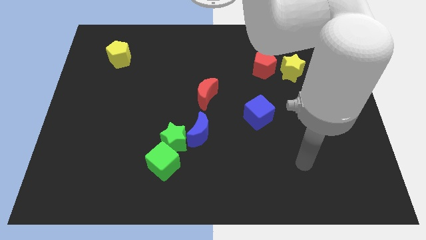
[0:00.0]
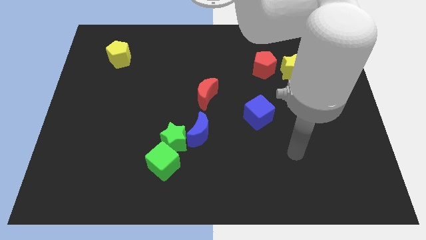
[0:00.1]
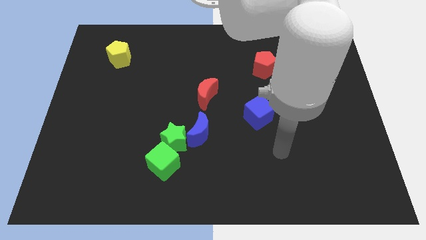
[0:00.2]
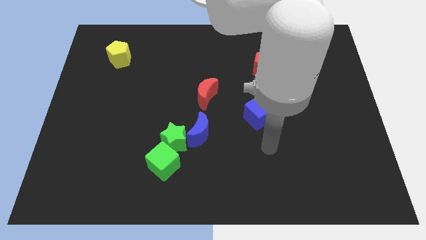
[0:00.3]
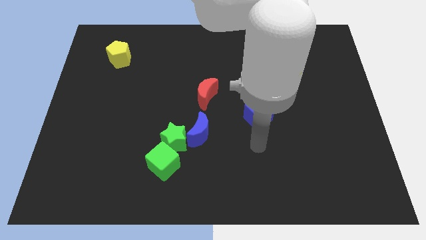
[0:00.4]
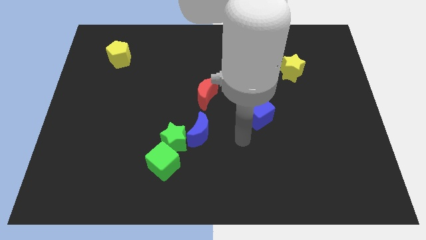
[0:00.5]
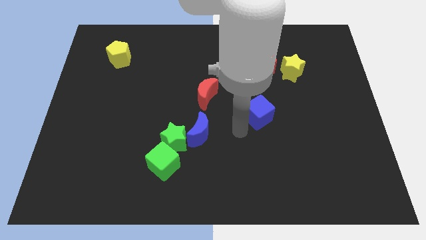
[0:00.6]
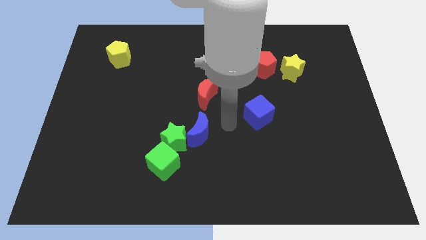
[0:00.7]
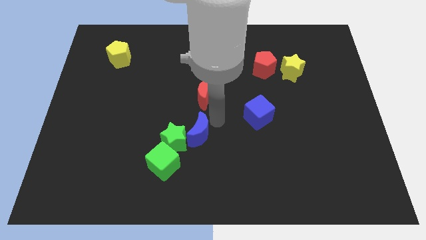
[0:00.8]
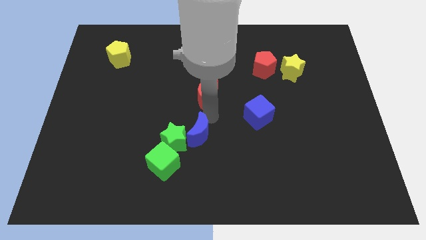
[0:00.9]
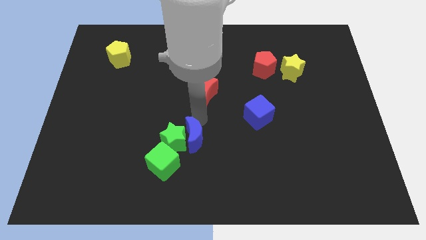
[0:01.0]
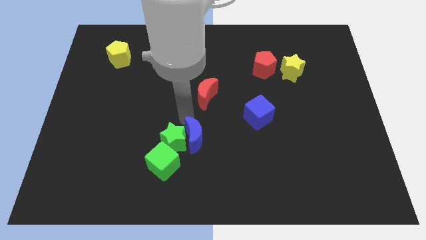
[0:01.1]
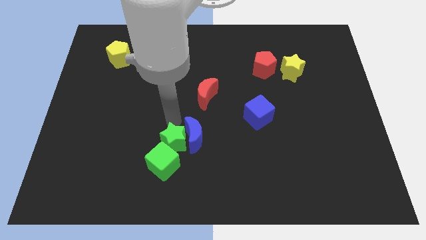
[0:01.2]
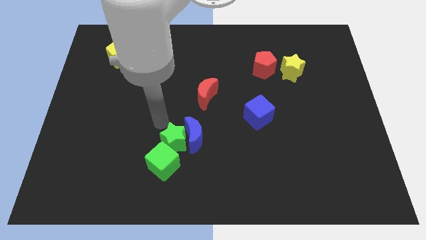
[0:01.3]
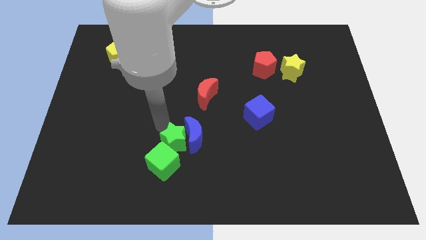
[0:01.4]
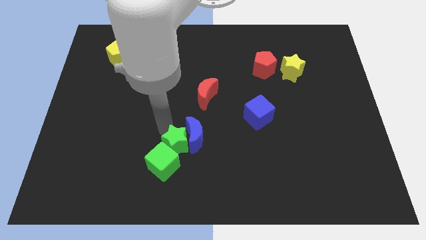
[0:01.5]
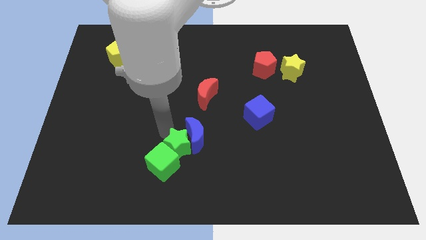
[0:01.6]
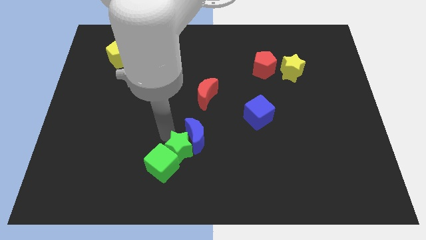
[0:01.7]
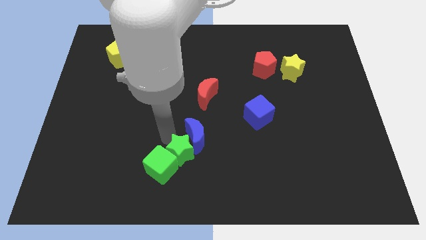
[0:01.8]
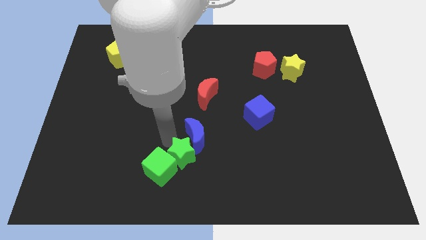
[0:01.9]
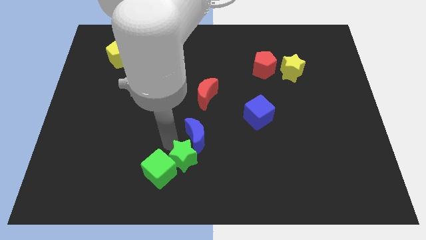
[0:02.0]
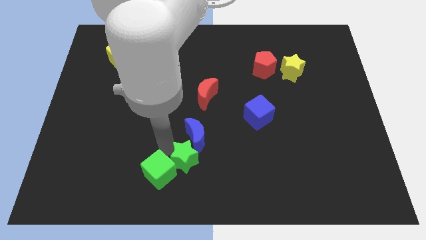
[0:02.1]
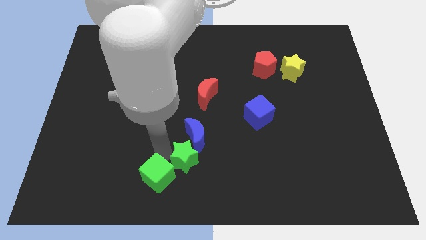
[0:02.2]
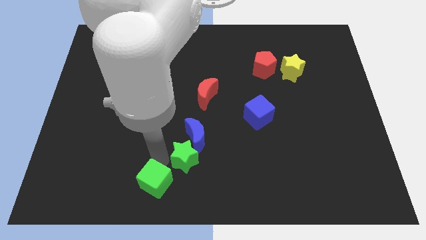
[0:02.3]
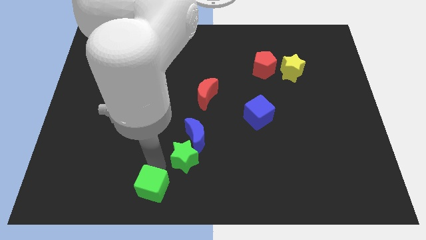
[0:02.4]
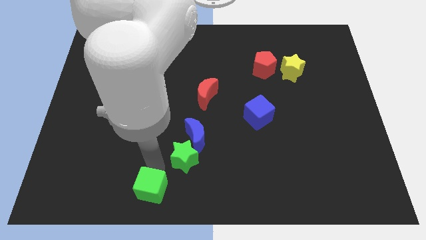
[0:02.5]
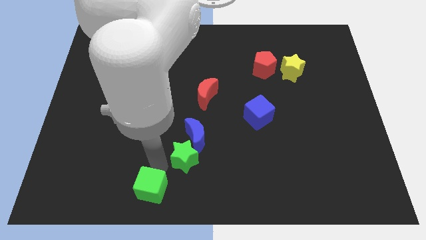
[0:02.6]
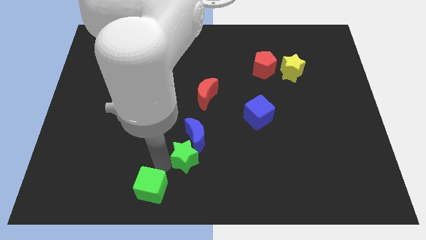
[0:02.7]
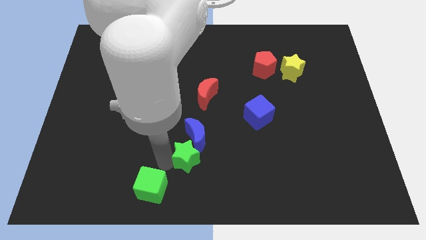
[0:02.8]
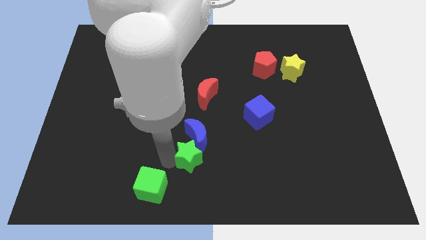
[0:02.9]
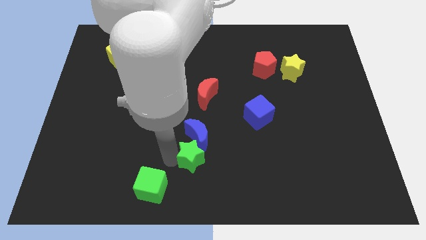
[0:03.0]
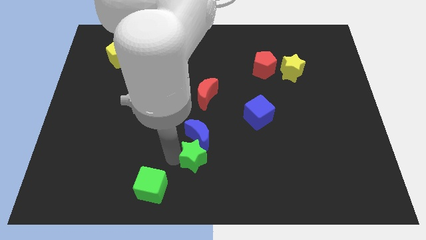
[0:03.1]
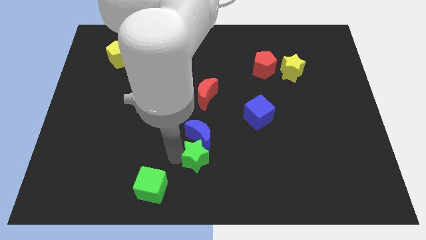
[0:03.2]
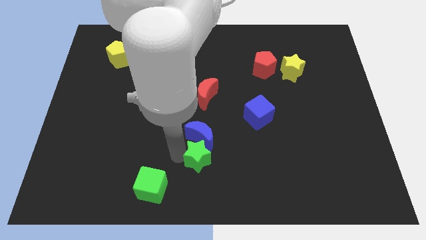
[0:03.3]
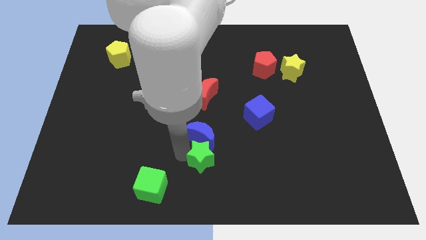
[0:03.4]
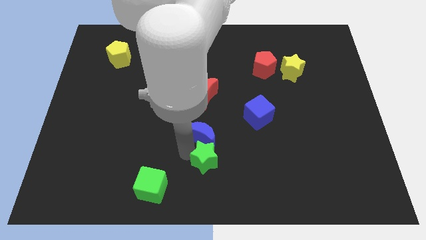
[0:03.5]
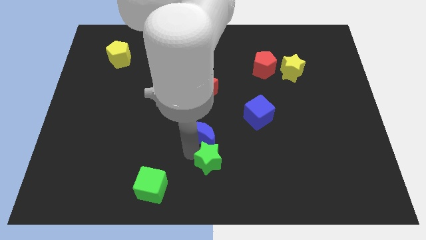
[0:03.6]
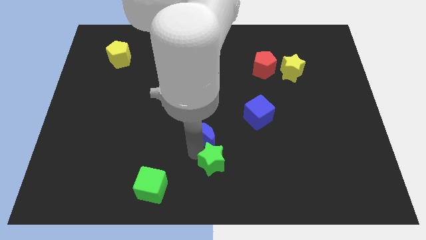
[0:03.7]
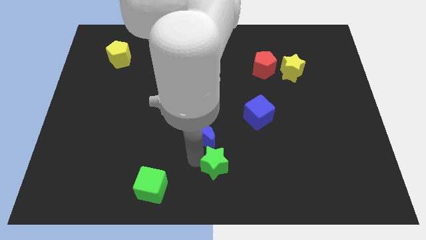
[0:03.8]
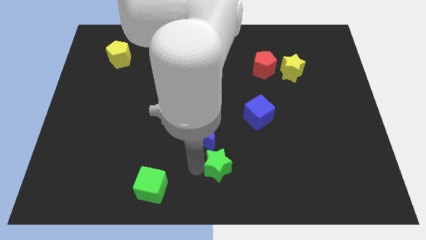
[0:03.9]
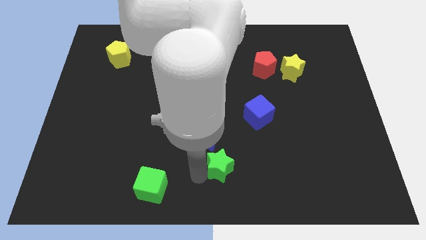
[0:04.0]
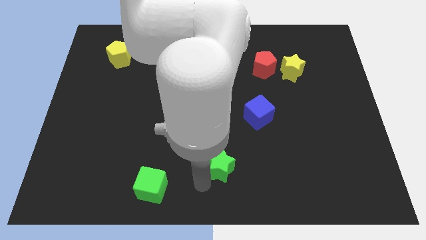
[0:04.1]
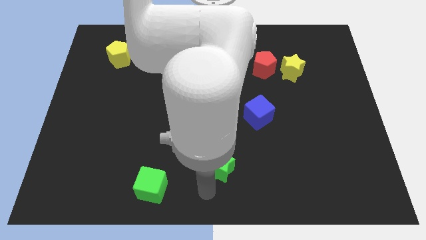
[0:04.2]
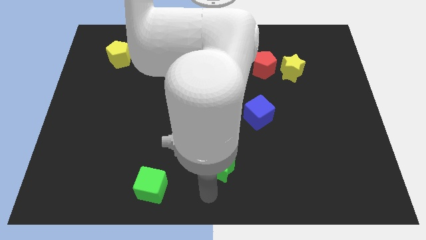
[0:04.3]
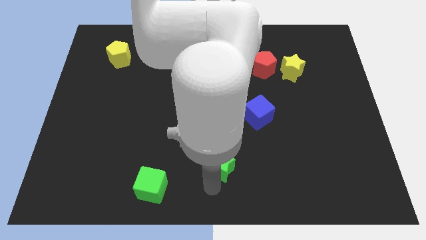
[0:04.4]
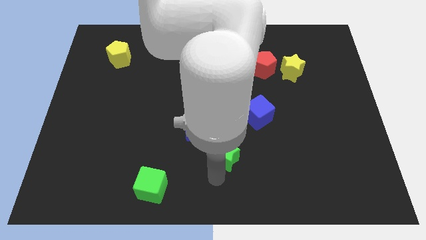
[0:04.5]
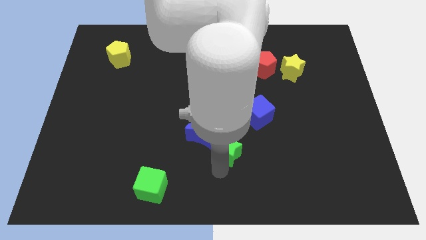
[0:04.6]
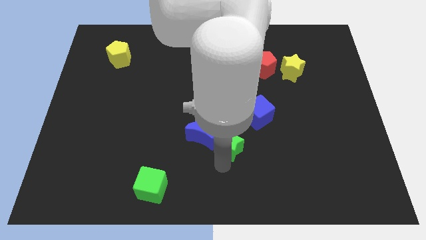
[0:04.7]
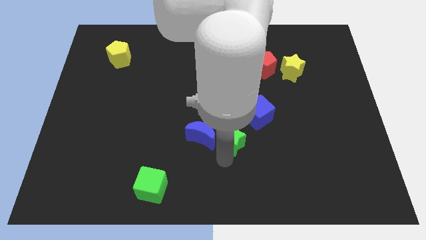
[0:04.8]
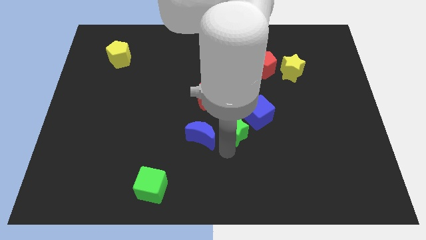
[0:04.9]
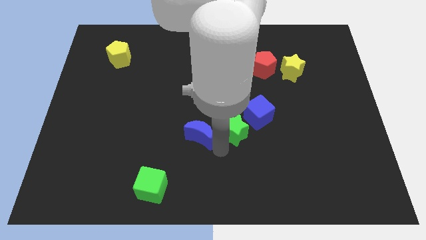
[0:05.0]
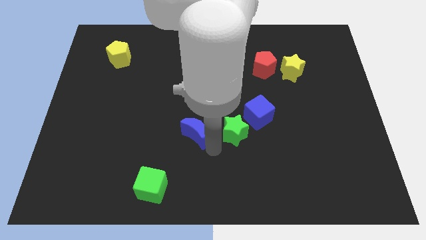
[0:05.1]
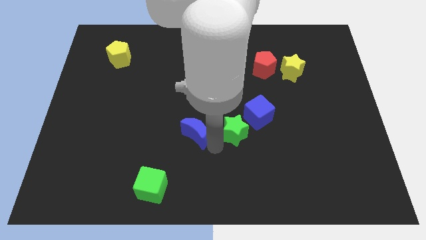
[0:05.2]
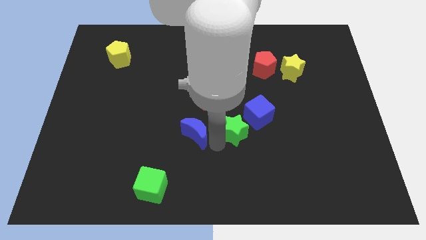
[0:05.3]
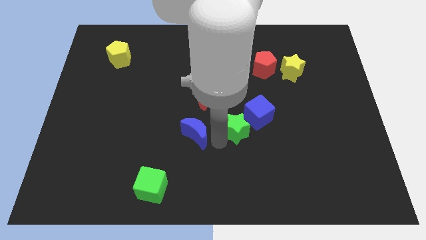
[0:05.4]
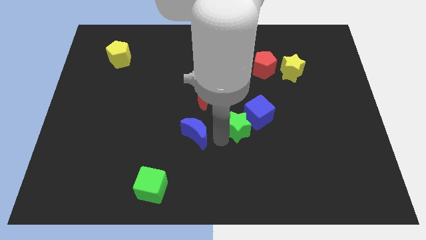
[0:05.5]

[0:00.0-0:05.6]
slide the green star to the blue cube

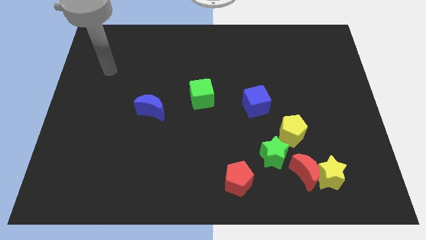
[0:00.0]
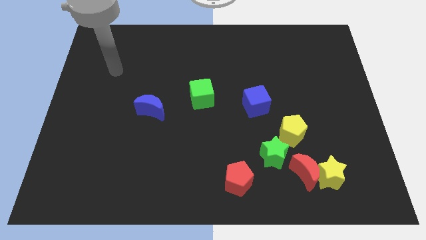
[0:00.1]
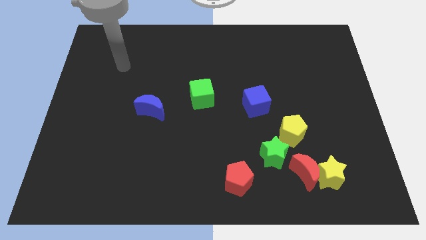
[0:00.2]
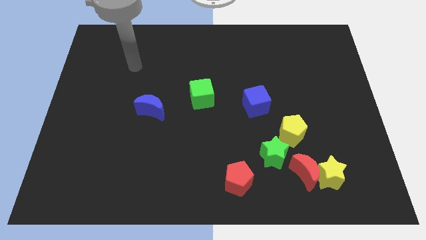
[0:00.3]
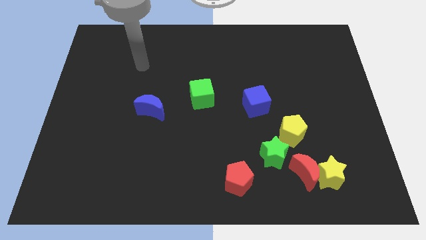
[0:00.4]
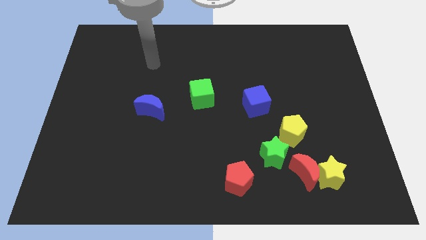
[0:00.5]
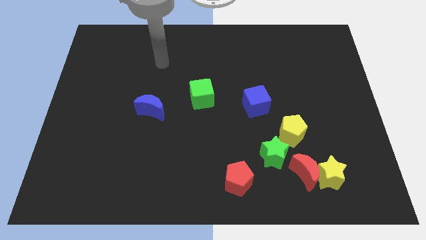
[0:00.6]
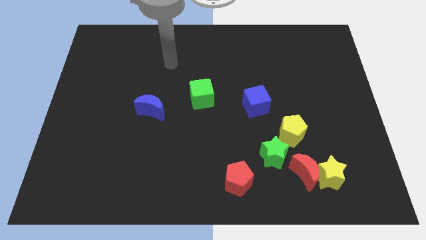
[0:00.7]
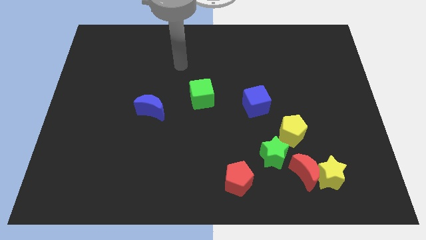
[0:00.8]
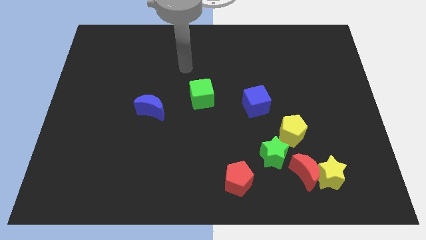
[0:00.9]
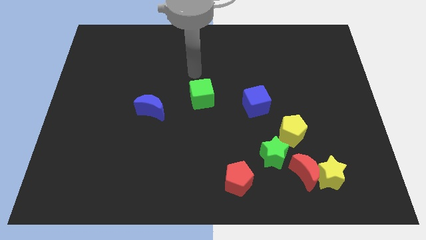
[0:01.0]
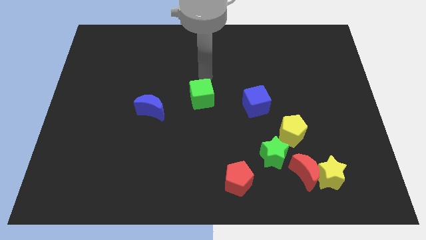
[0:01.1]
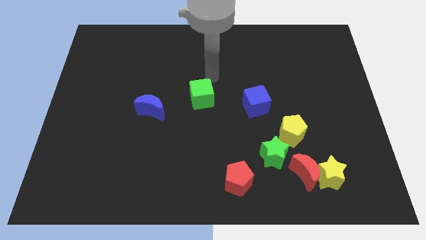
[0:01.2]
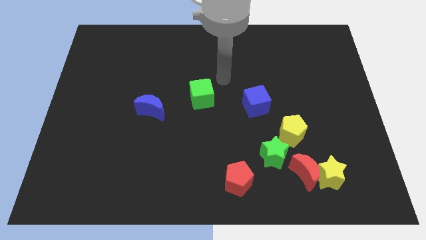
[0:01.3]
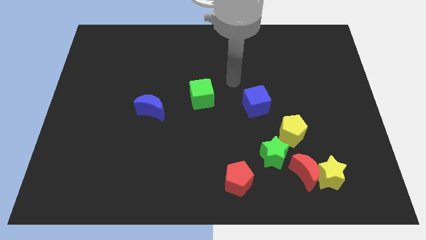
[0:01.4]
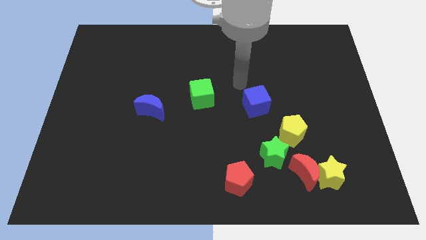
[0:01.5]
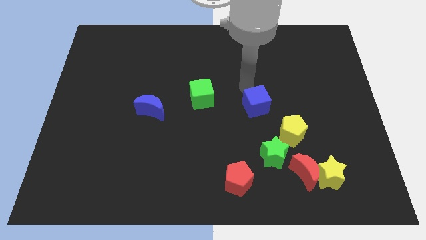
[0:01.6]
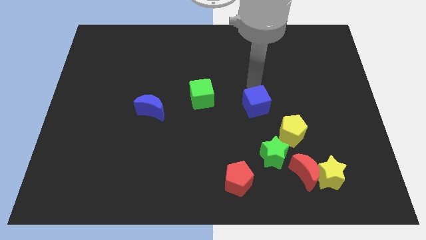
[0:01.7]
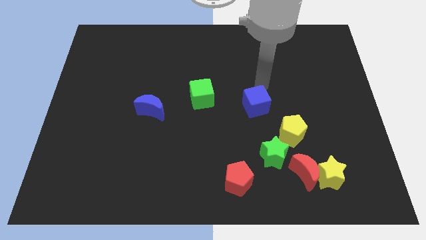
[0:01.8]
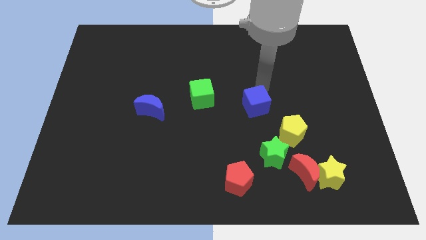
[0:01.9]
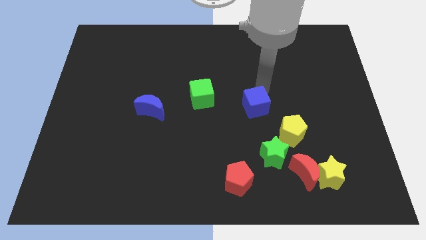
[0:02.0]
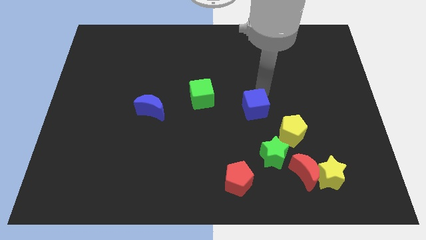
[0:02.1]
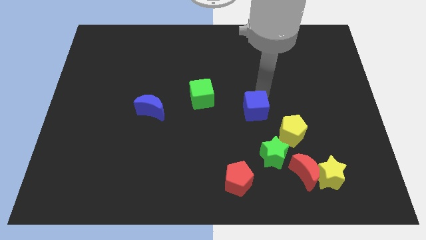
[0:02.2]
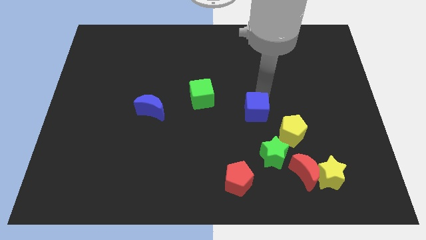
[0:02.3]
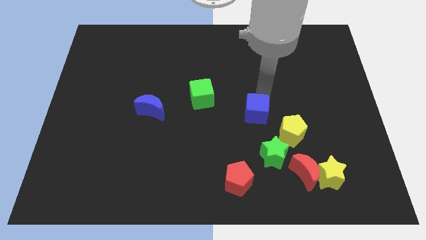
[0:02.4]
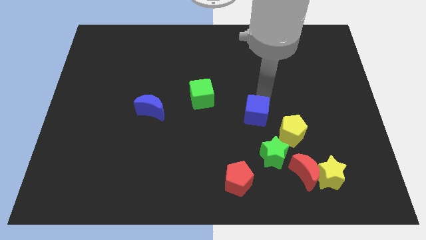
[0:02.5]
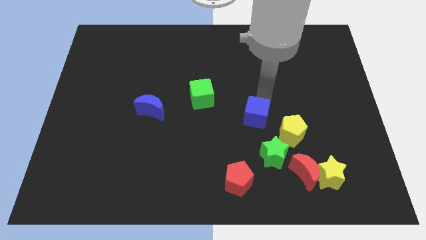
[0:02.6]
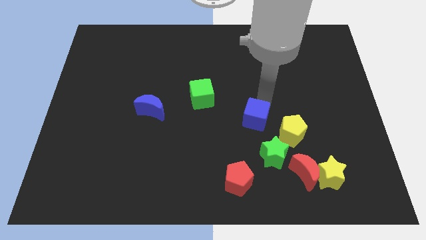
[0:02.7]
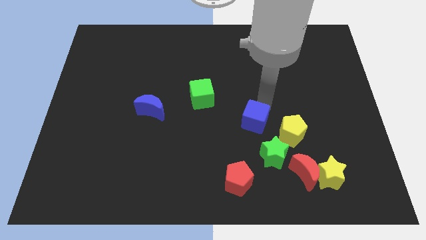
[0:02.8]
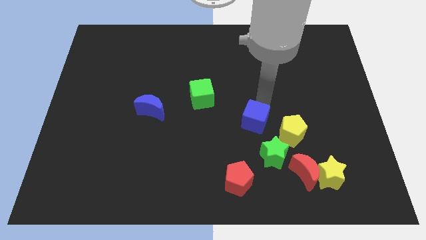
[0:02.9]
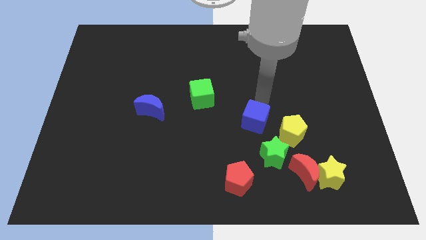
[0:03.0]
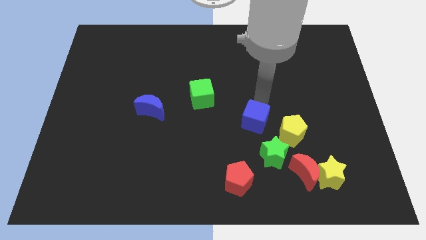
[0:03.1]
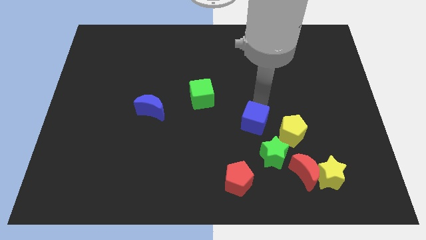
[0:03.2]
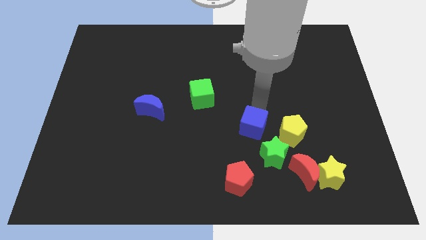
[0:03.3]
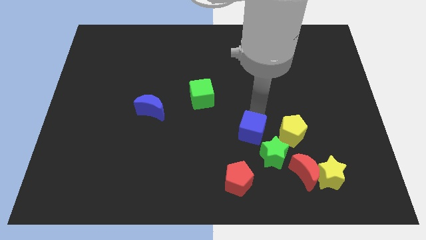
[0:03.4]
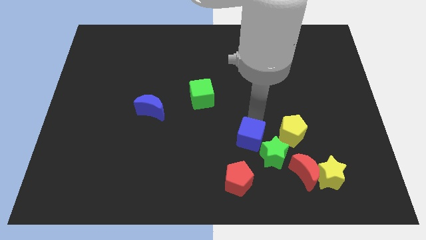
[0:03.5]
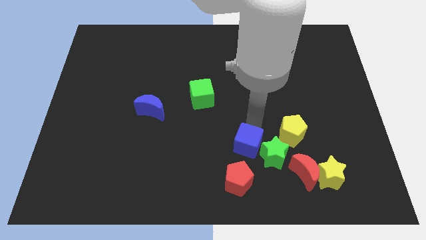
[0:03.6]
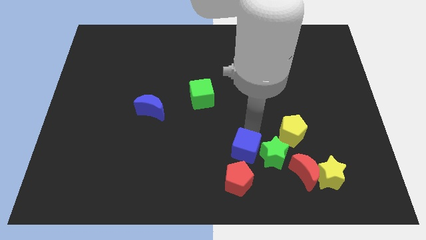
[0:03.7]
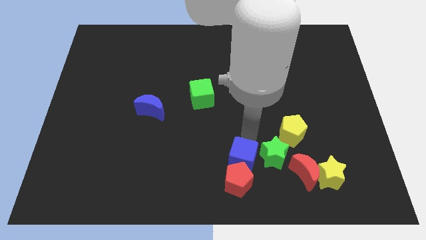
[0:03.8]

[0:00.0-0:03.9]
push the blue cube to the red pentagon
